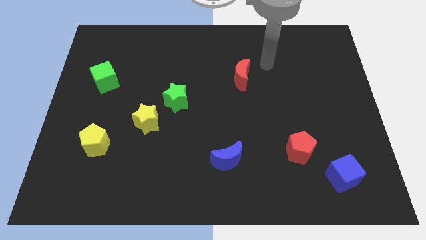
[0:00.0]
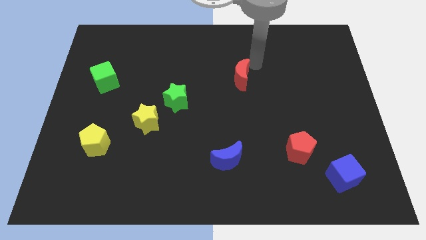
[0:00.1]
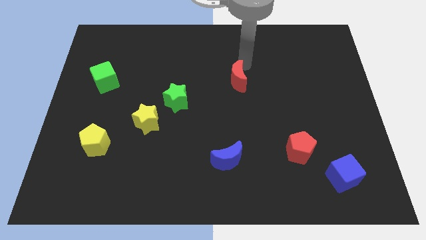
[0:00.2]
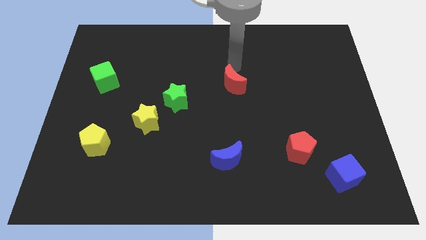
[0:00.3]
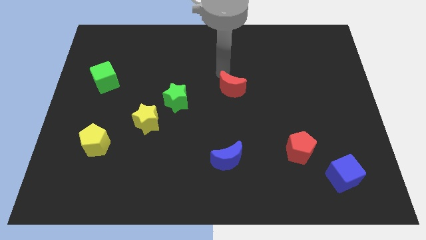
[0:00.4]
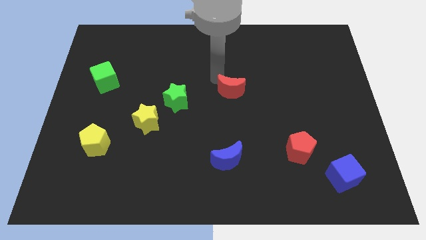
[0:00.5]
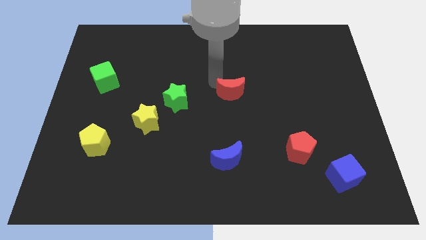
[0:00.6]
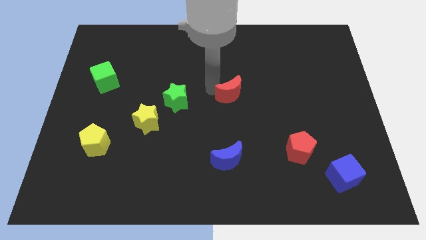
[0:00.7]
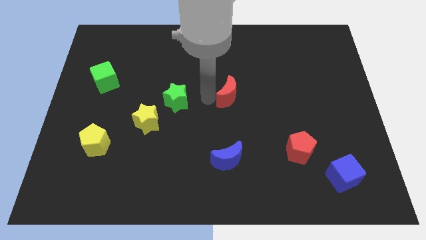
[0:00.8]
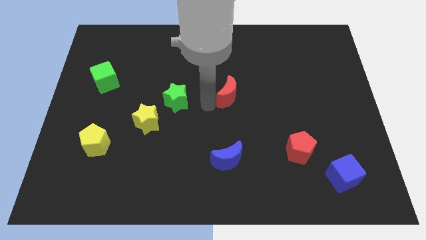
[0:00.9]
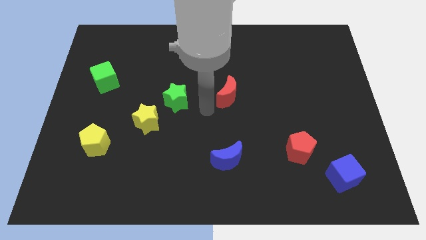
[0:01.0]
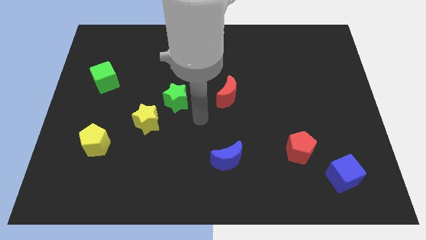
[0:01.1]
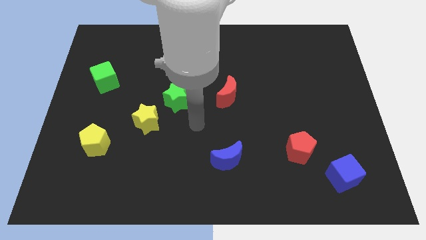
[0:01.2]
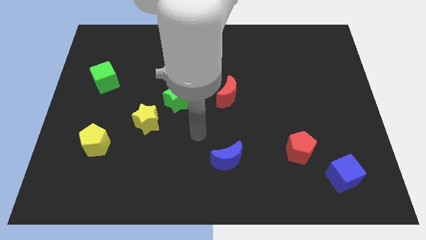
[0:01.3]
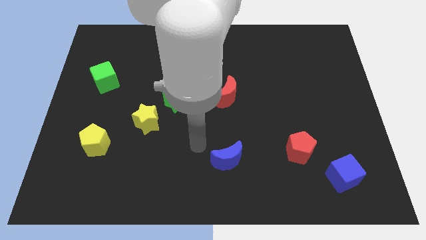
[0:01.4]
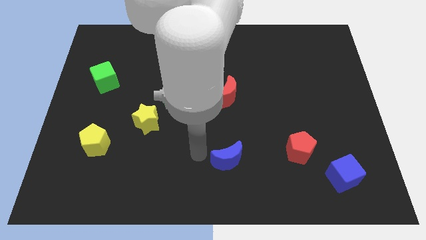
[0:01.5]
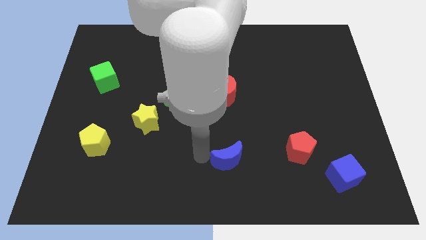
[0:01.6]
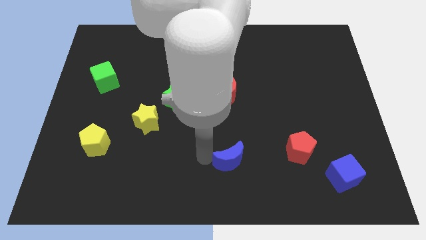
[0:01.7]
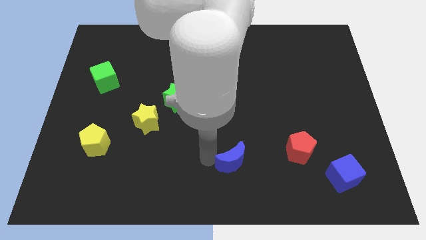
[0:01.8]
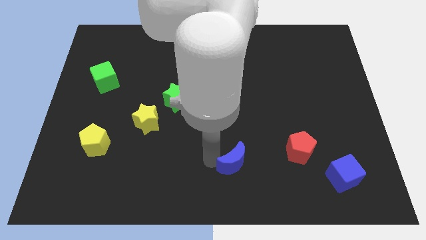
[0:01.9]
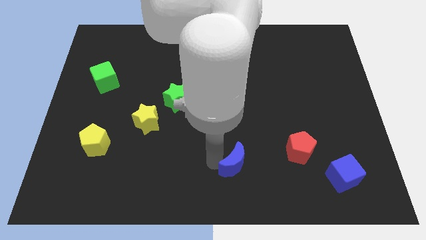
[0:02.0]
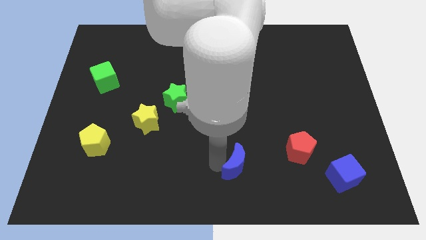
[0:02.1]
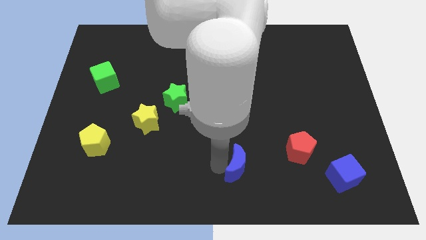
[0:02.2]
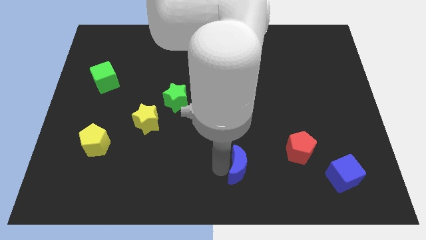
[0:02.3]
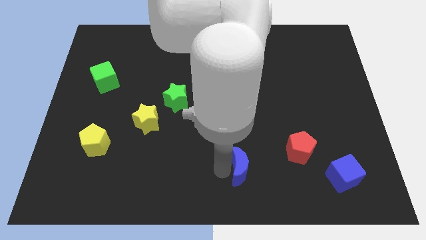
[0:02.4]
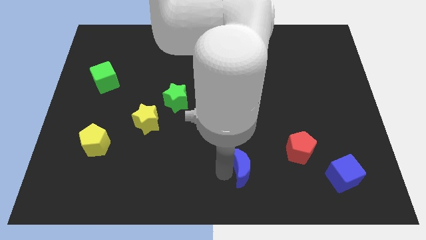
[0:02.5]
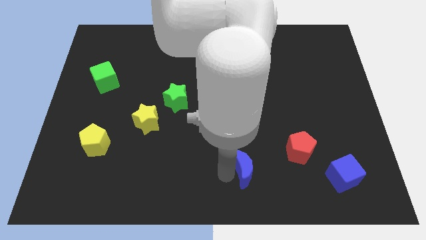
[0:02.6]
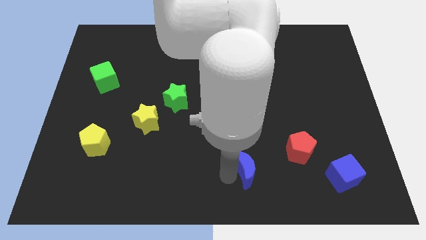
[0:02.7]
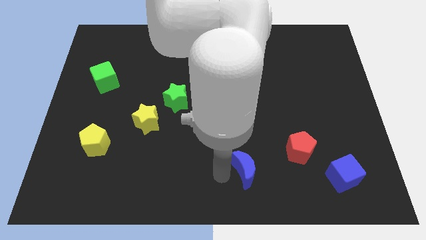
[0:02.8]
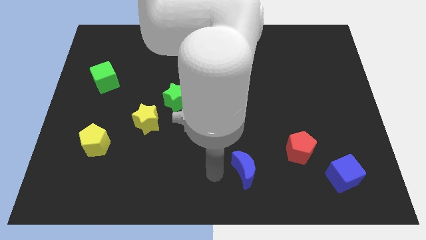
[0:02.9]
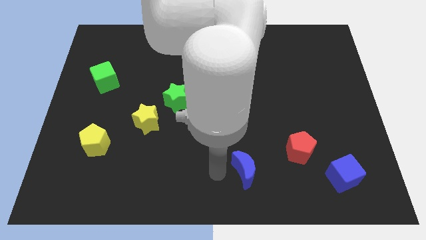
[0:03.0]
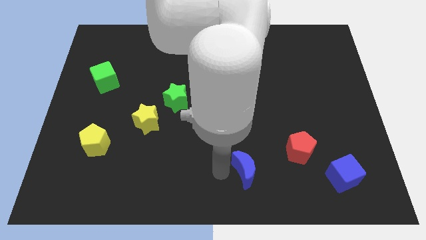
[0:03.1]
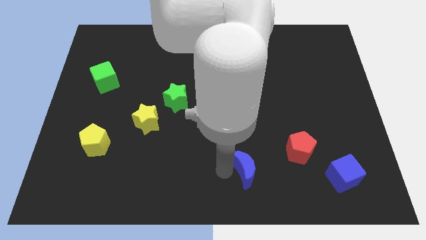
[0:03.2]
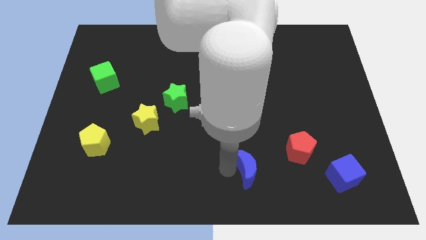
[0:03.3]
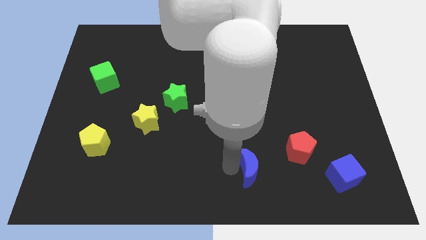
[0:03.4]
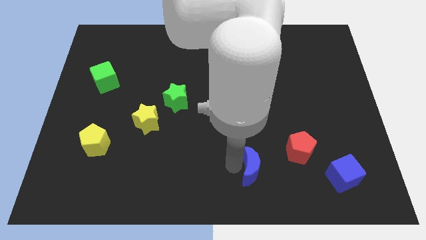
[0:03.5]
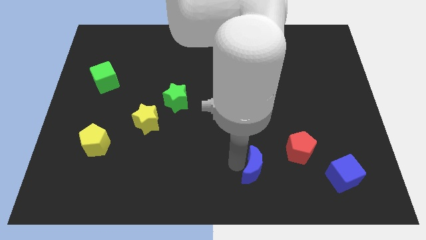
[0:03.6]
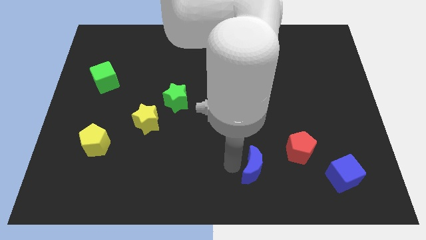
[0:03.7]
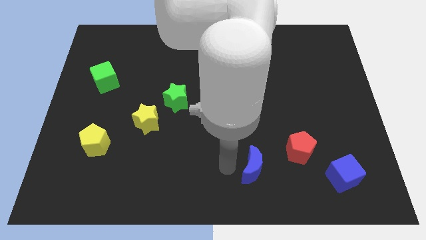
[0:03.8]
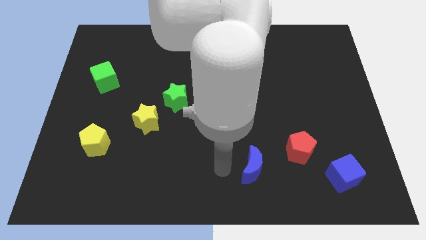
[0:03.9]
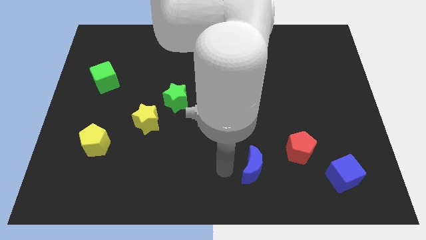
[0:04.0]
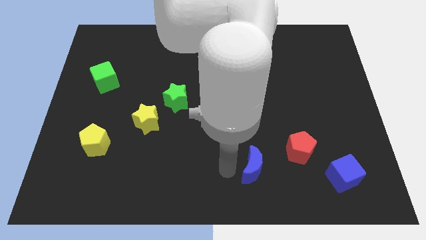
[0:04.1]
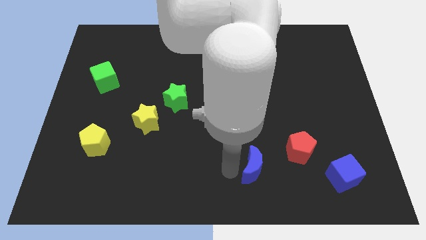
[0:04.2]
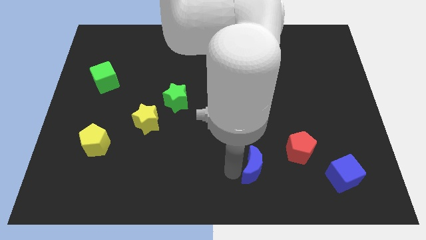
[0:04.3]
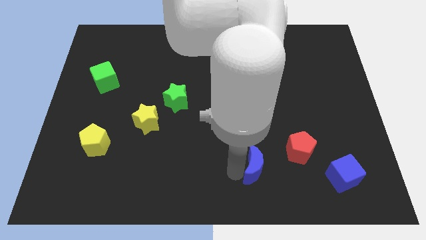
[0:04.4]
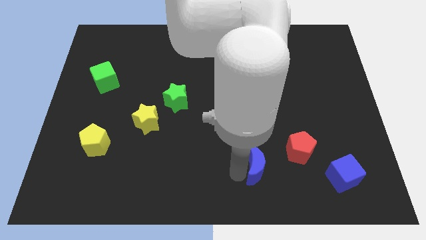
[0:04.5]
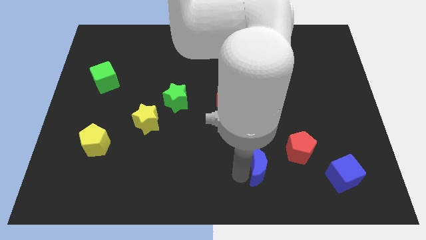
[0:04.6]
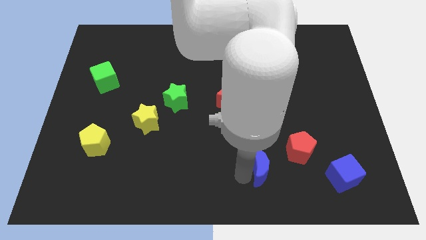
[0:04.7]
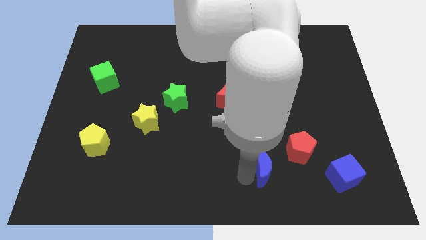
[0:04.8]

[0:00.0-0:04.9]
move the blue moon right somewhat

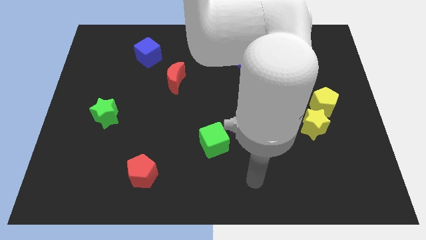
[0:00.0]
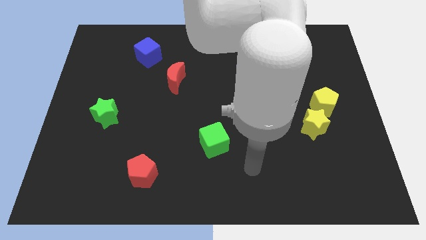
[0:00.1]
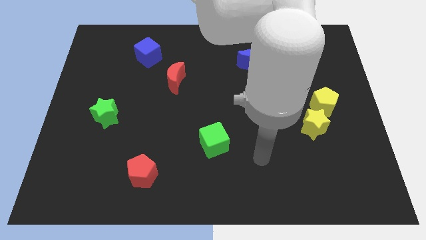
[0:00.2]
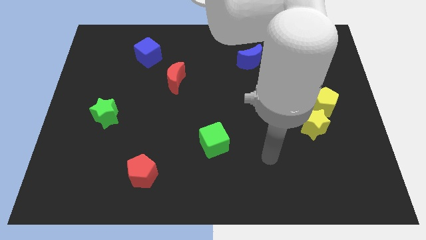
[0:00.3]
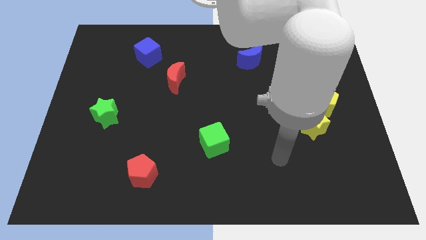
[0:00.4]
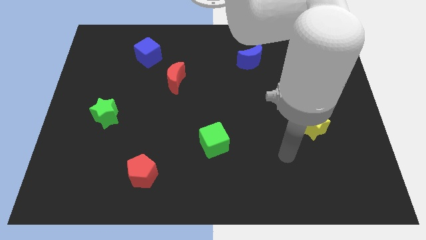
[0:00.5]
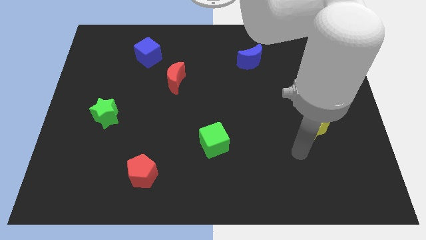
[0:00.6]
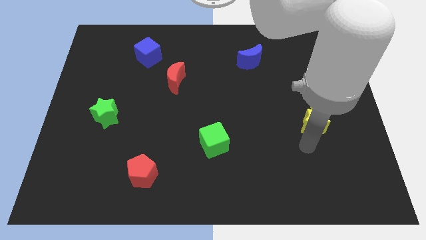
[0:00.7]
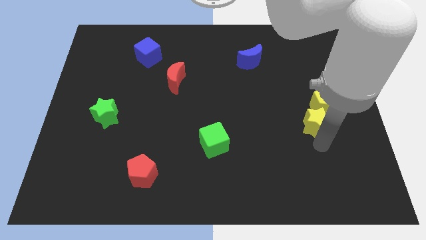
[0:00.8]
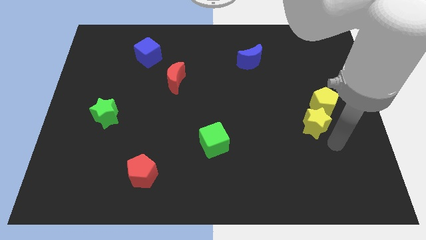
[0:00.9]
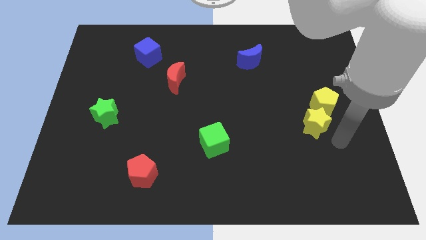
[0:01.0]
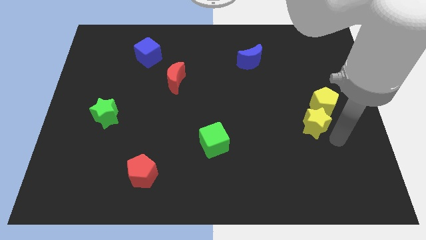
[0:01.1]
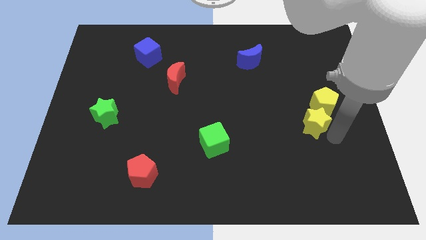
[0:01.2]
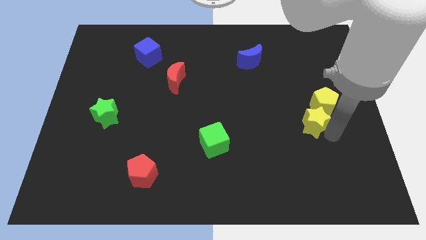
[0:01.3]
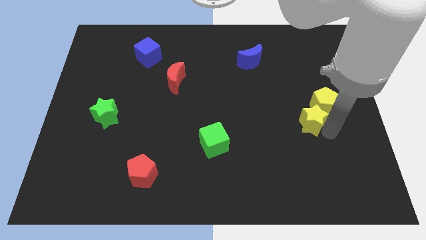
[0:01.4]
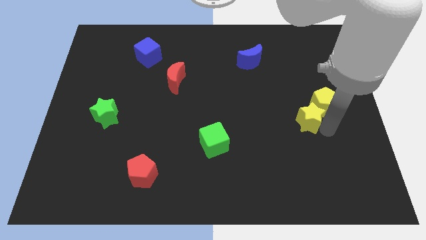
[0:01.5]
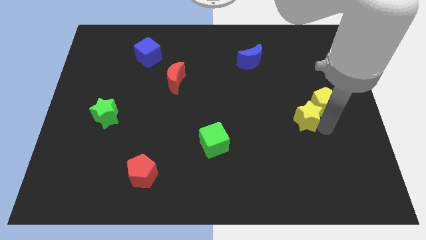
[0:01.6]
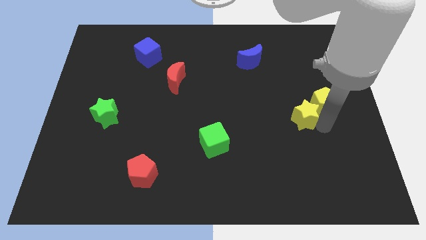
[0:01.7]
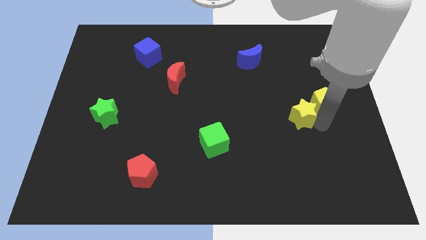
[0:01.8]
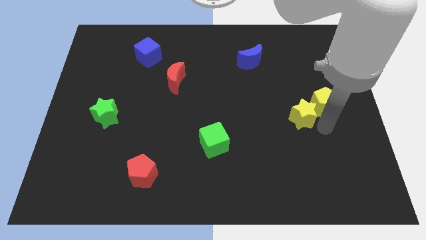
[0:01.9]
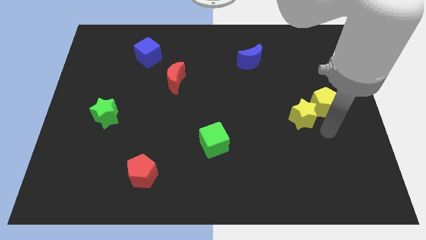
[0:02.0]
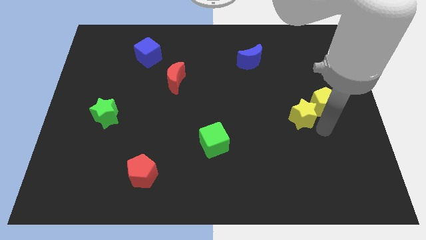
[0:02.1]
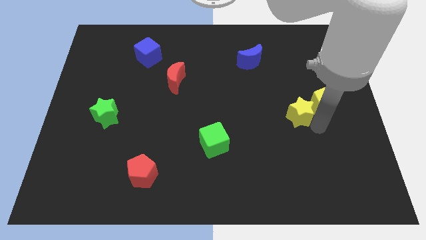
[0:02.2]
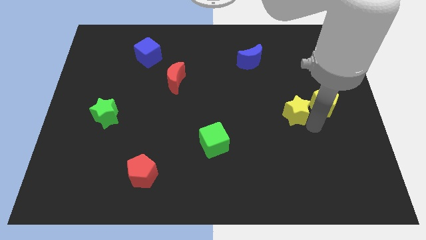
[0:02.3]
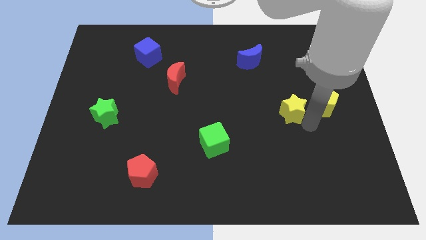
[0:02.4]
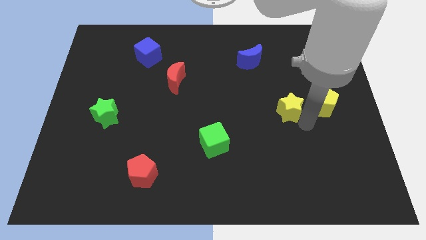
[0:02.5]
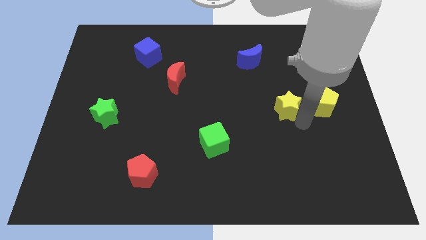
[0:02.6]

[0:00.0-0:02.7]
slightly slide the yellow star upwards and left

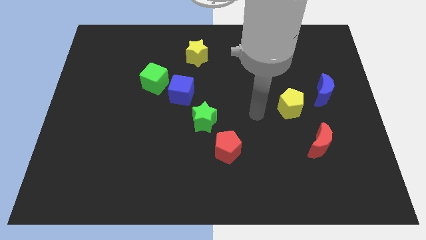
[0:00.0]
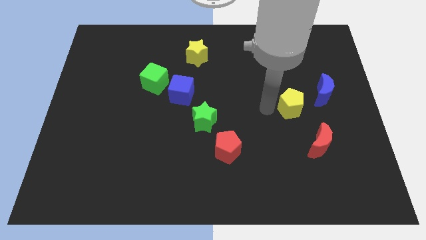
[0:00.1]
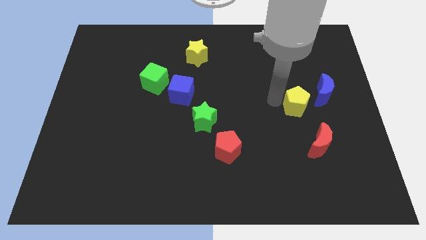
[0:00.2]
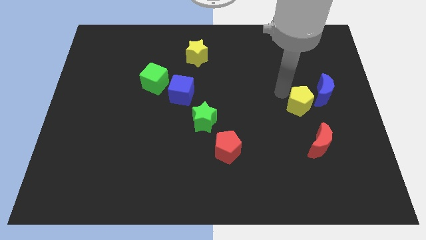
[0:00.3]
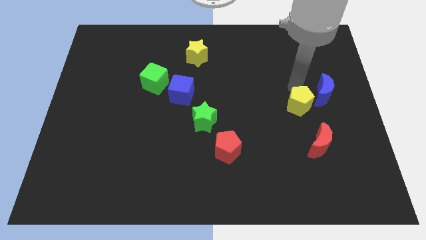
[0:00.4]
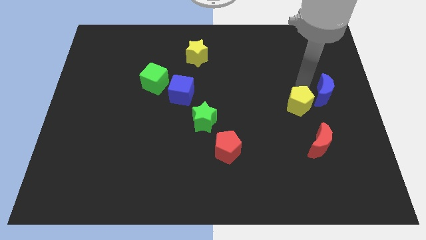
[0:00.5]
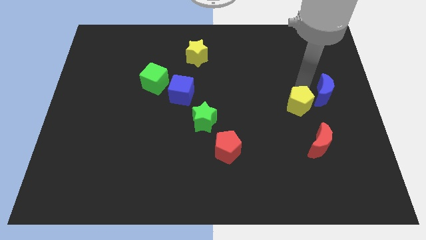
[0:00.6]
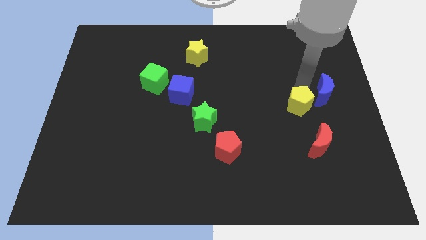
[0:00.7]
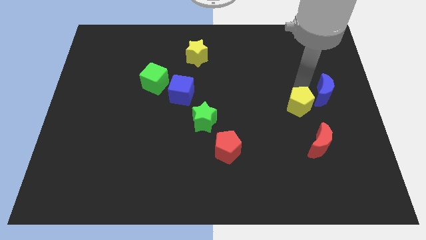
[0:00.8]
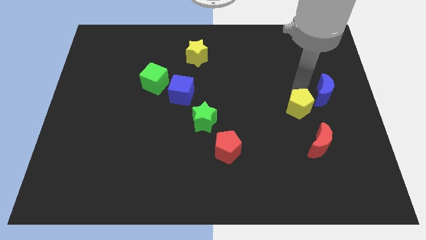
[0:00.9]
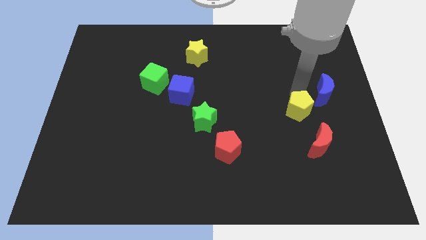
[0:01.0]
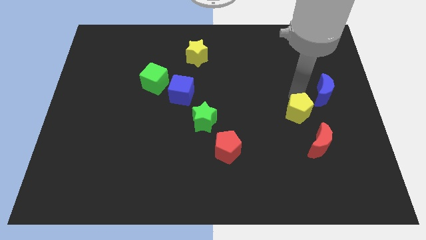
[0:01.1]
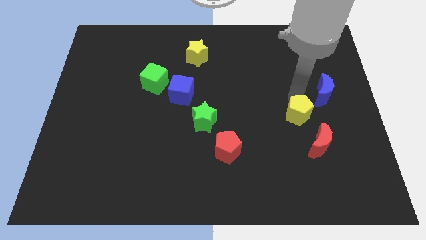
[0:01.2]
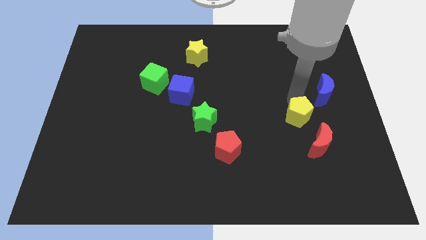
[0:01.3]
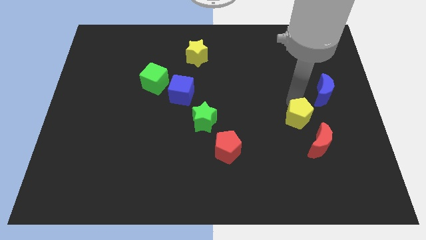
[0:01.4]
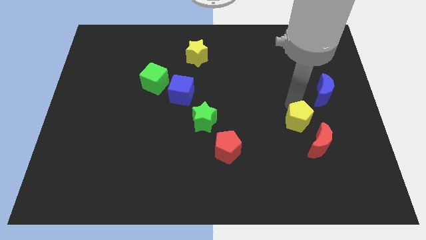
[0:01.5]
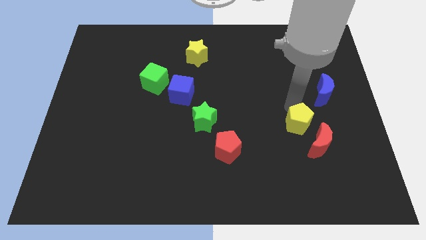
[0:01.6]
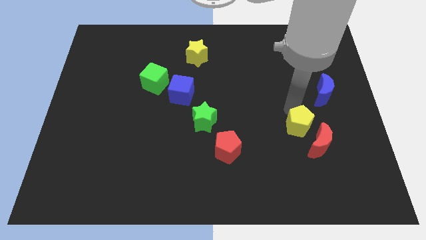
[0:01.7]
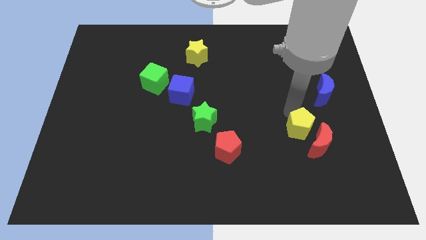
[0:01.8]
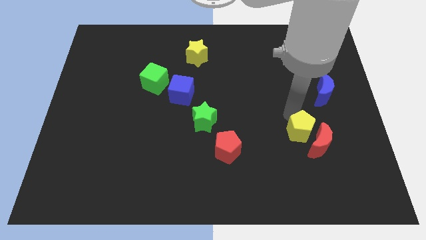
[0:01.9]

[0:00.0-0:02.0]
slightly push the yellow pentagon down
